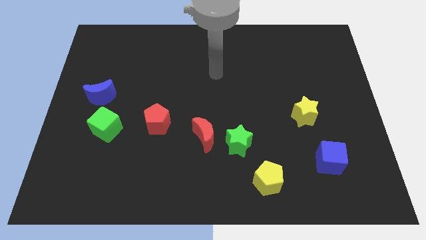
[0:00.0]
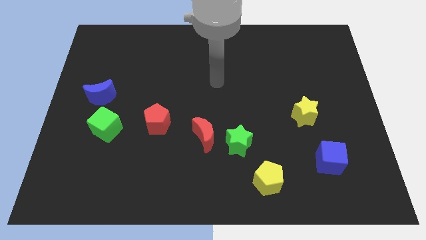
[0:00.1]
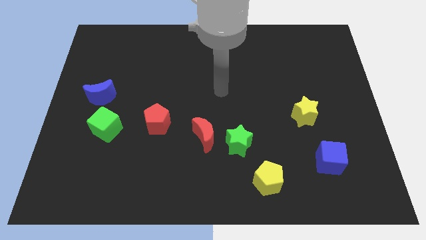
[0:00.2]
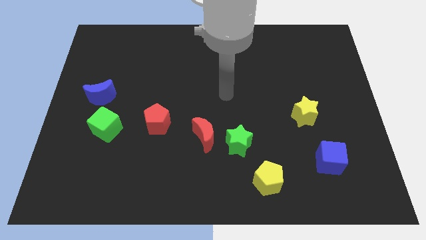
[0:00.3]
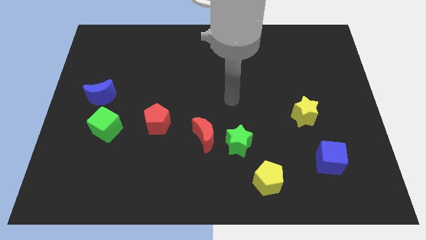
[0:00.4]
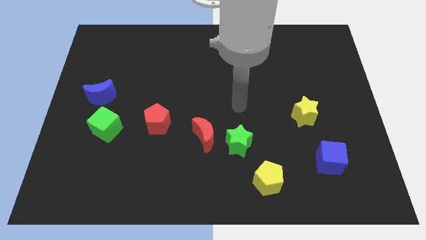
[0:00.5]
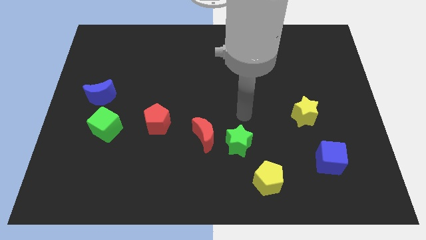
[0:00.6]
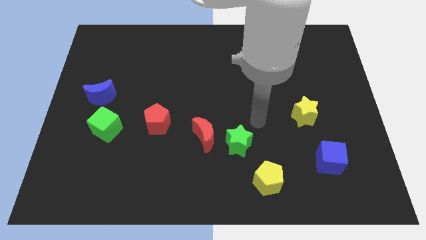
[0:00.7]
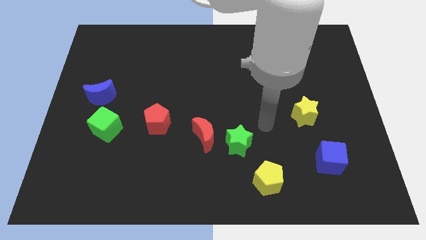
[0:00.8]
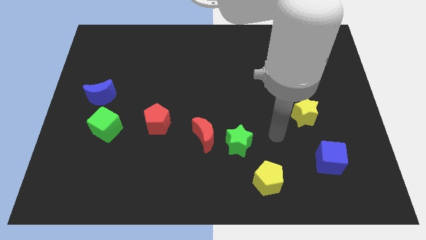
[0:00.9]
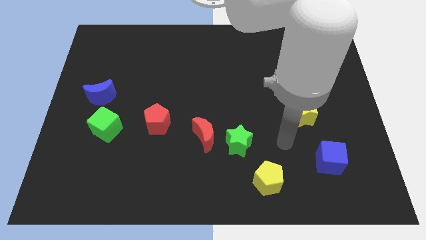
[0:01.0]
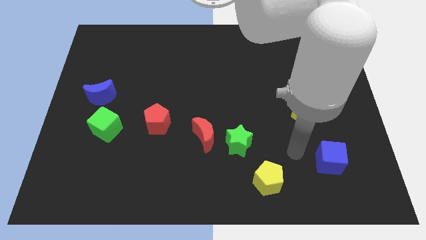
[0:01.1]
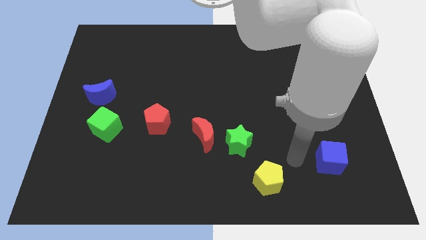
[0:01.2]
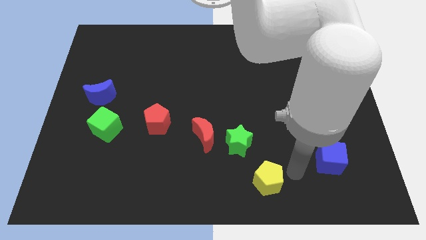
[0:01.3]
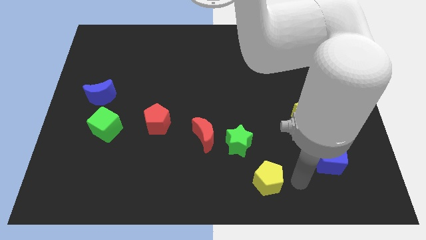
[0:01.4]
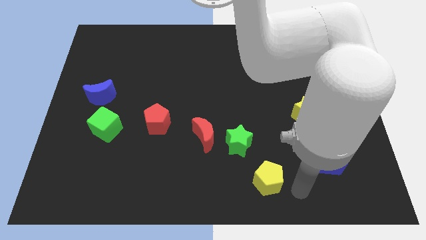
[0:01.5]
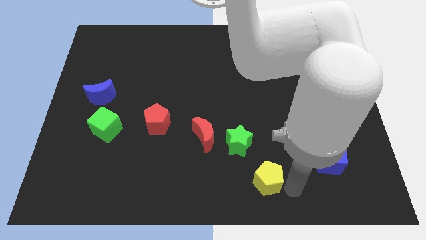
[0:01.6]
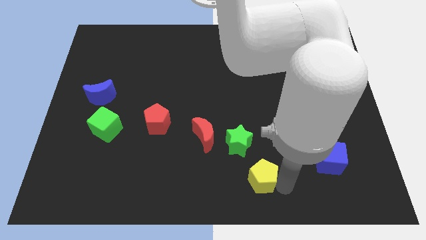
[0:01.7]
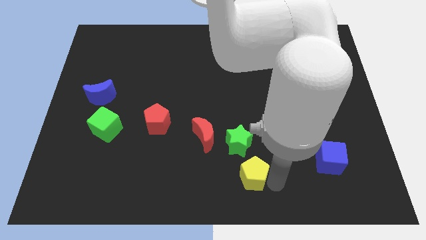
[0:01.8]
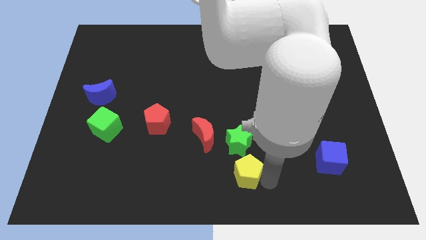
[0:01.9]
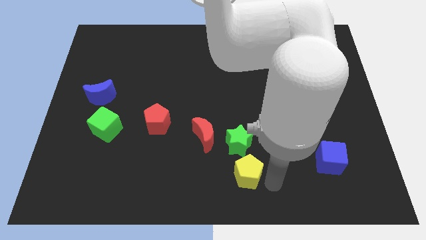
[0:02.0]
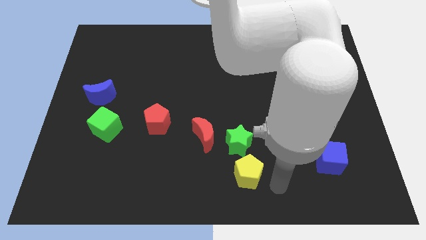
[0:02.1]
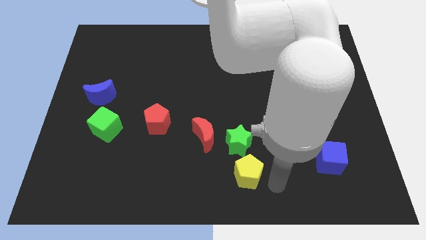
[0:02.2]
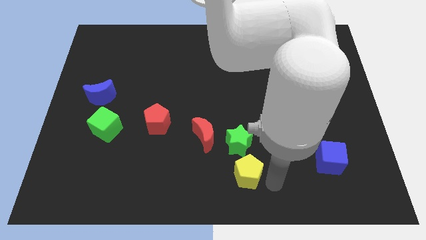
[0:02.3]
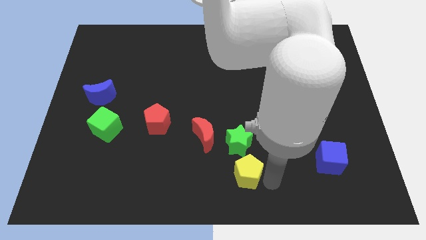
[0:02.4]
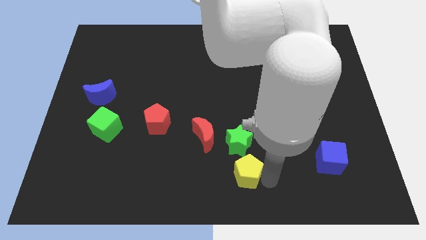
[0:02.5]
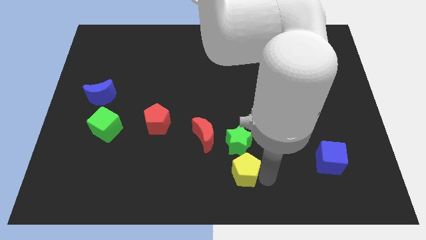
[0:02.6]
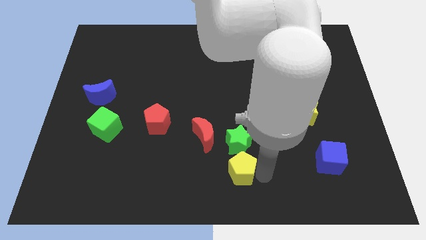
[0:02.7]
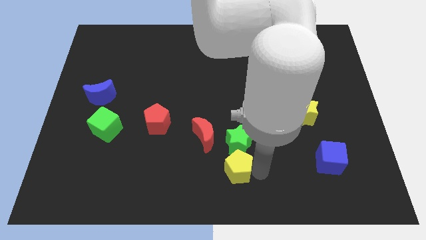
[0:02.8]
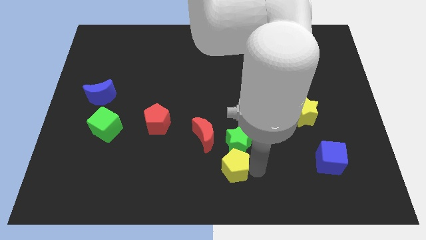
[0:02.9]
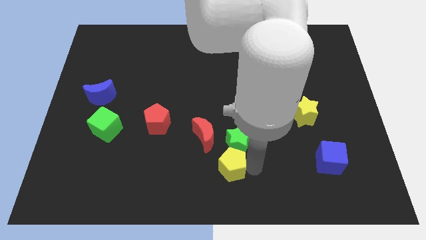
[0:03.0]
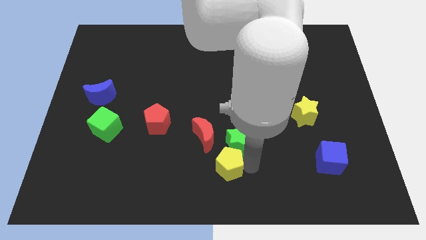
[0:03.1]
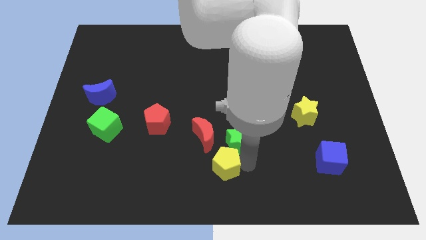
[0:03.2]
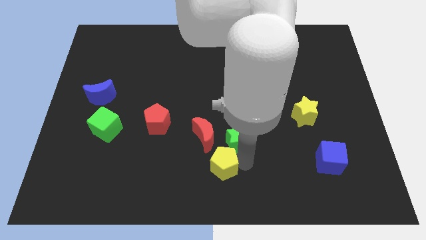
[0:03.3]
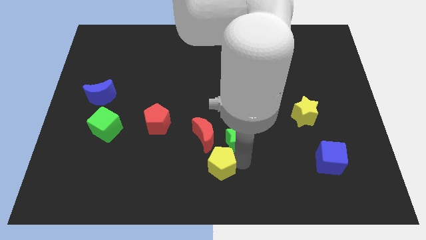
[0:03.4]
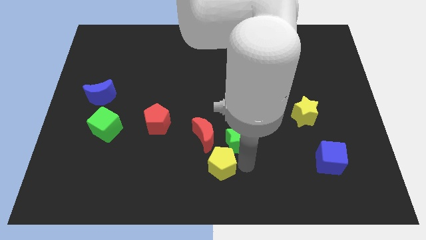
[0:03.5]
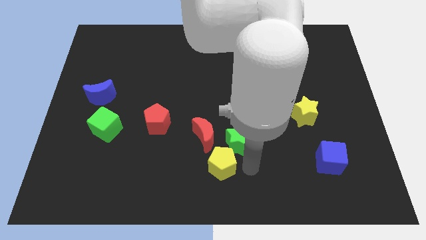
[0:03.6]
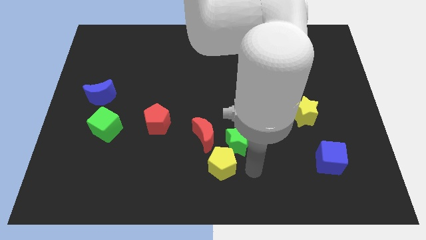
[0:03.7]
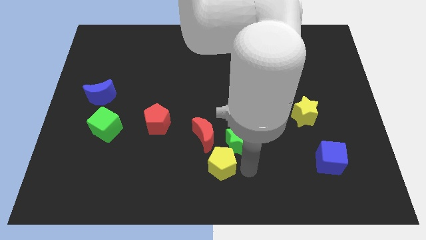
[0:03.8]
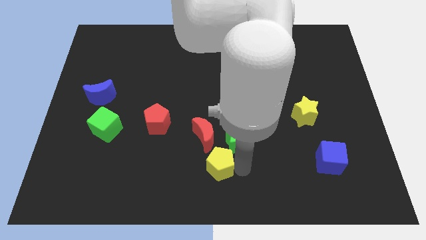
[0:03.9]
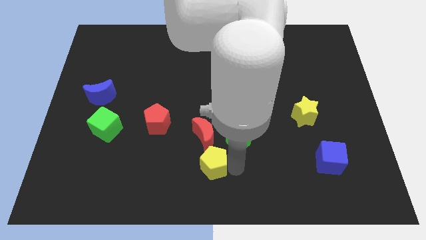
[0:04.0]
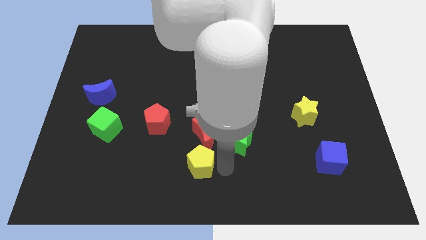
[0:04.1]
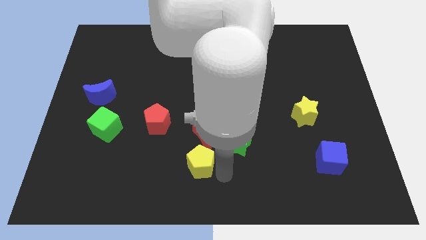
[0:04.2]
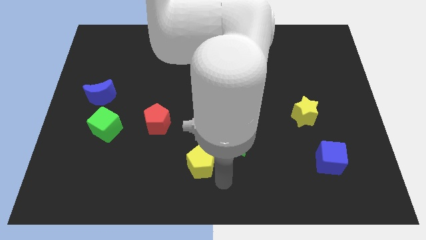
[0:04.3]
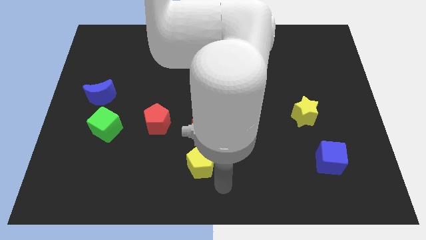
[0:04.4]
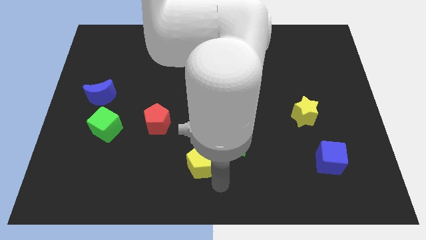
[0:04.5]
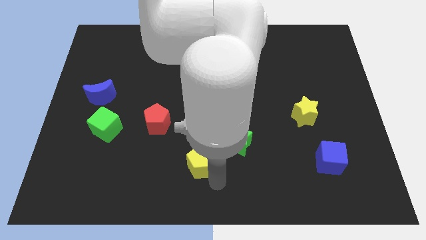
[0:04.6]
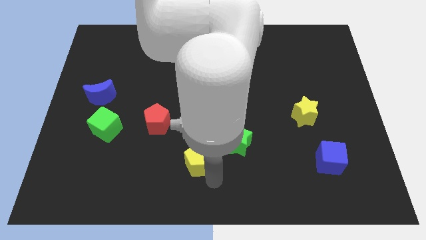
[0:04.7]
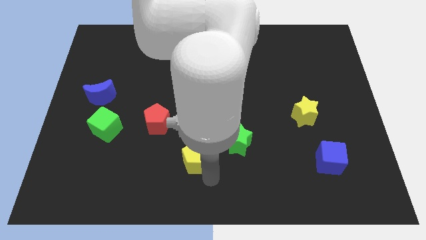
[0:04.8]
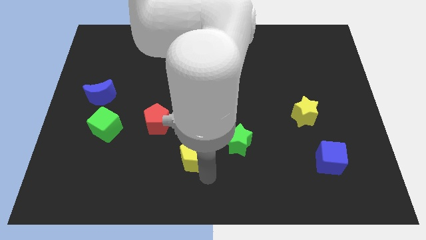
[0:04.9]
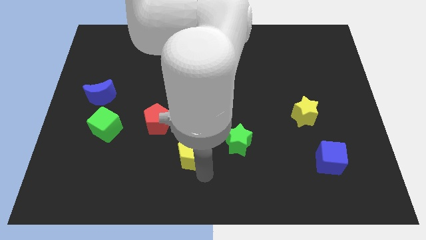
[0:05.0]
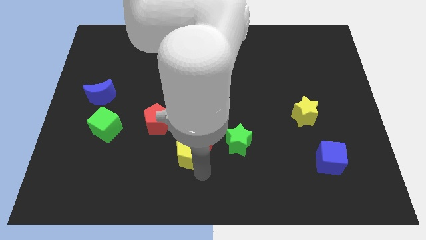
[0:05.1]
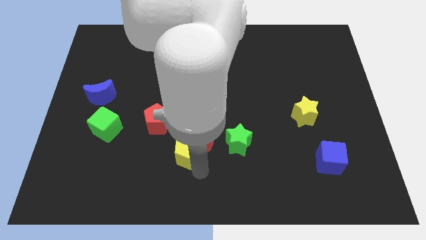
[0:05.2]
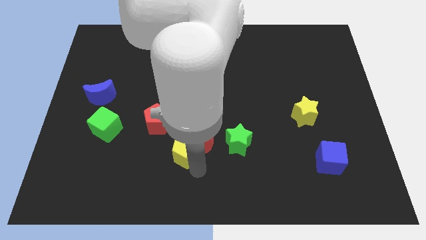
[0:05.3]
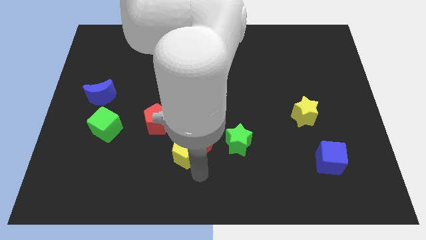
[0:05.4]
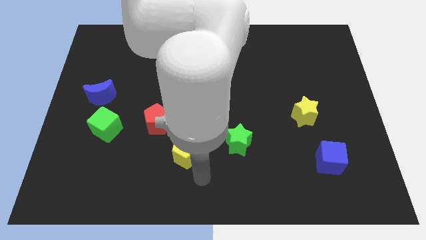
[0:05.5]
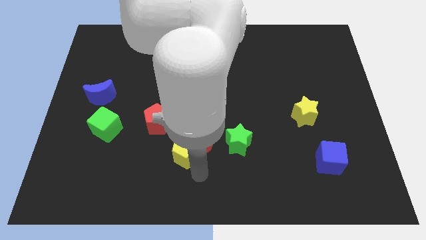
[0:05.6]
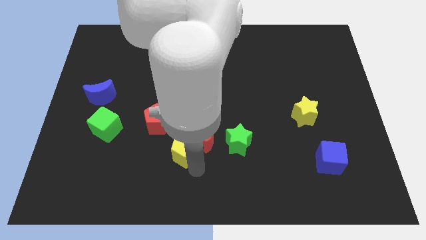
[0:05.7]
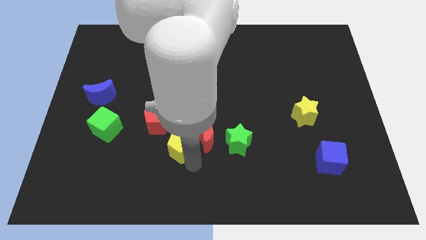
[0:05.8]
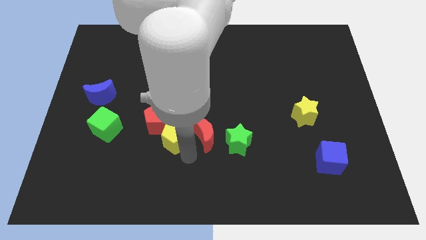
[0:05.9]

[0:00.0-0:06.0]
push the yellow pentagon towards the red pentagon

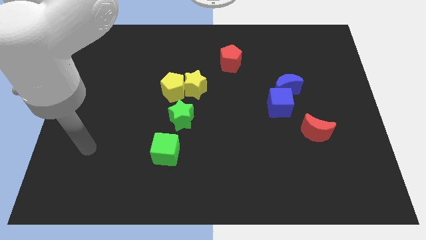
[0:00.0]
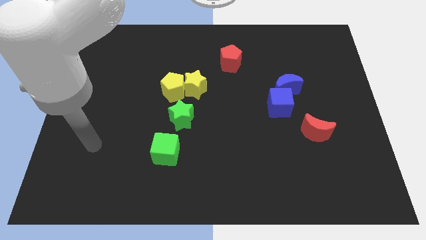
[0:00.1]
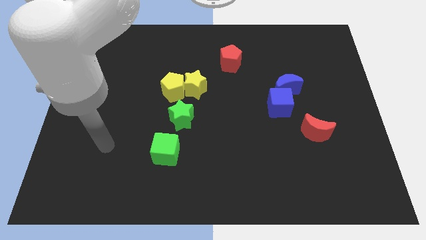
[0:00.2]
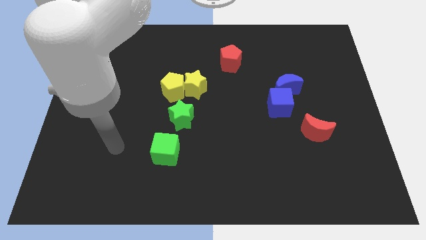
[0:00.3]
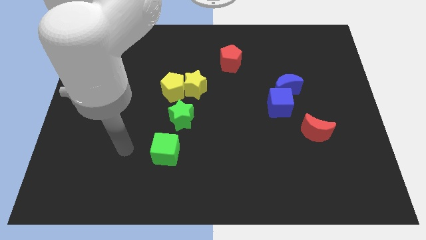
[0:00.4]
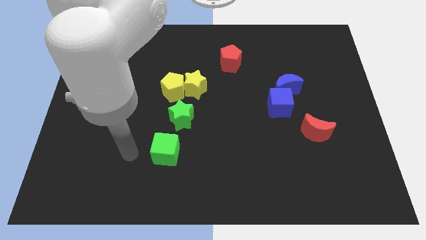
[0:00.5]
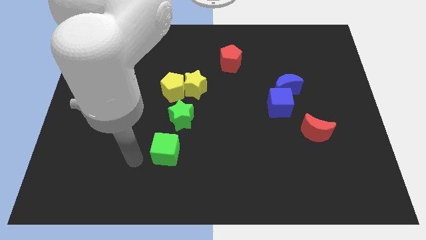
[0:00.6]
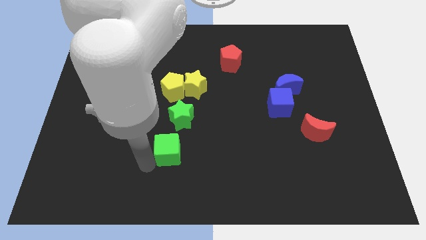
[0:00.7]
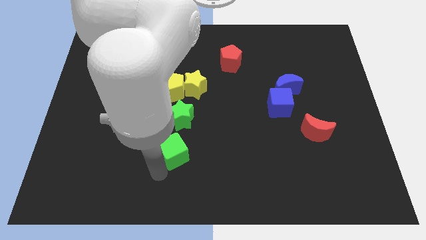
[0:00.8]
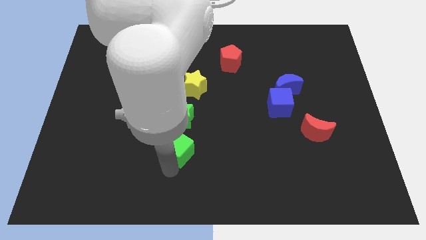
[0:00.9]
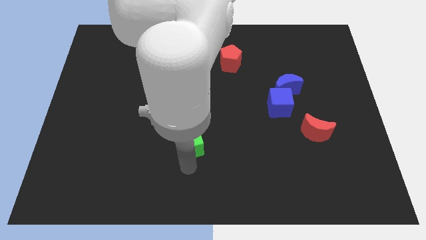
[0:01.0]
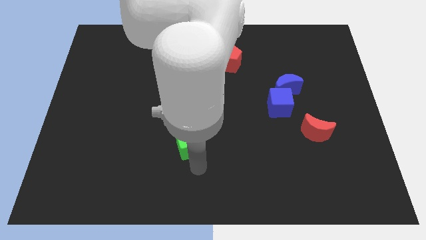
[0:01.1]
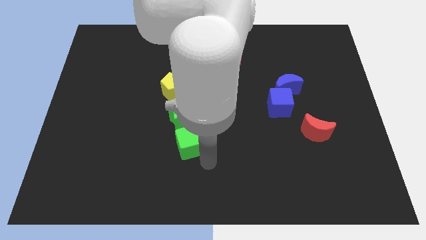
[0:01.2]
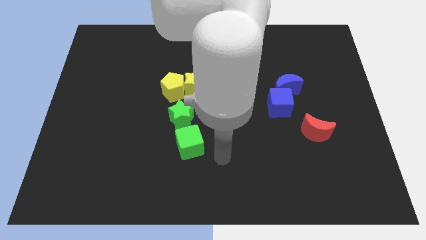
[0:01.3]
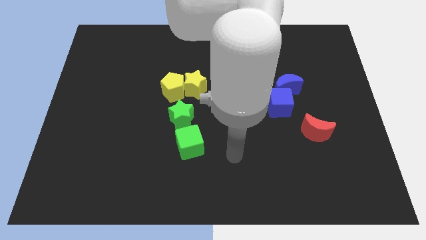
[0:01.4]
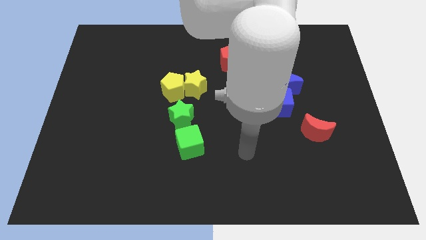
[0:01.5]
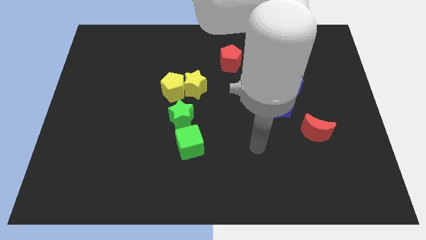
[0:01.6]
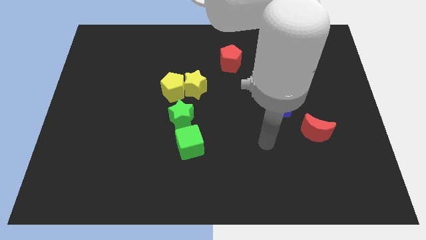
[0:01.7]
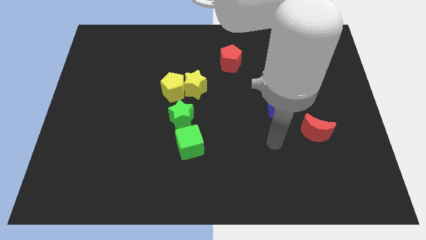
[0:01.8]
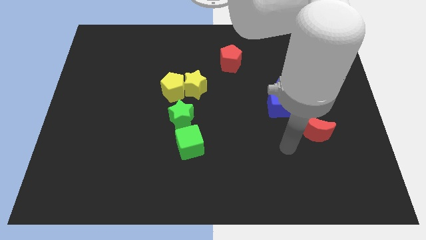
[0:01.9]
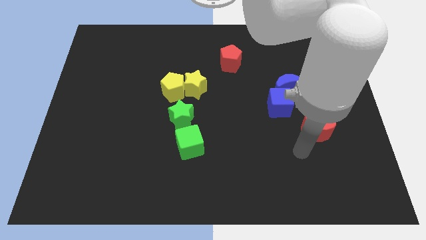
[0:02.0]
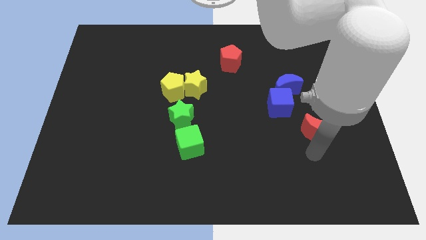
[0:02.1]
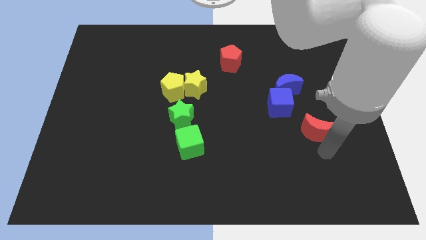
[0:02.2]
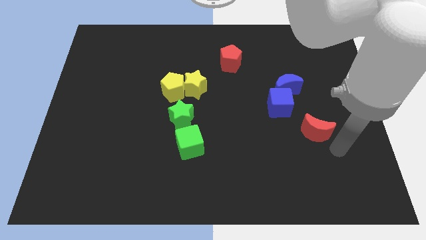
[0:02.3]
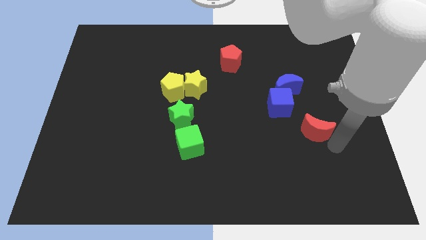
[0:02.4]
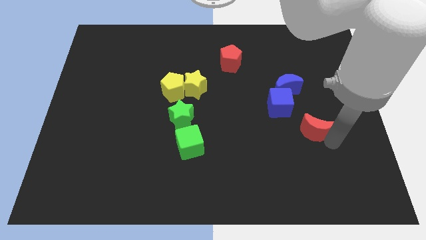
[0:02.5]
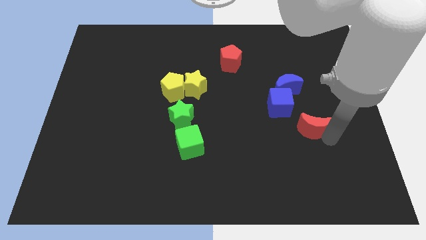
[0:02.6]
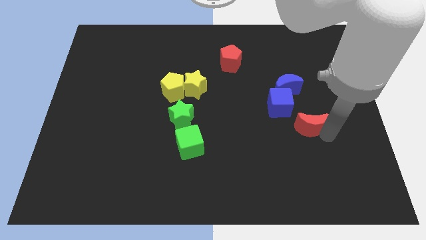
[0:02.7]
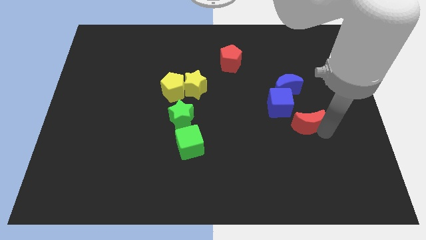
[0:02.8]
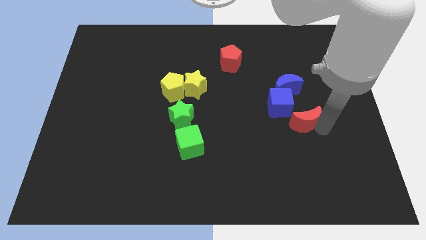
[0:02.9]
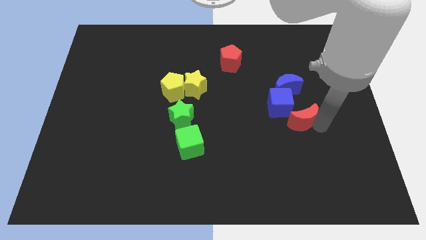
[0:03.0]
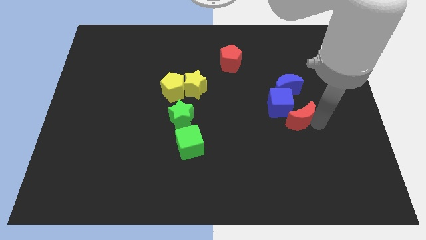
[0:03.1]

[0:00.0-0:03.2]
slide the red moon next to the blue cube
